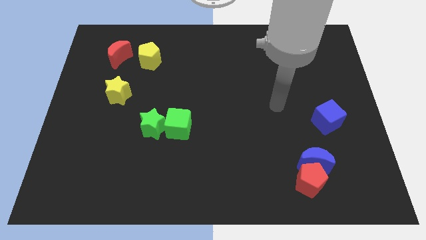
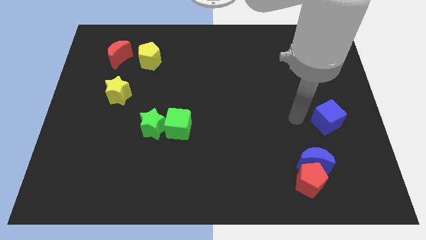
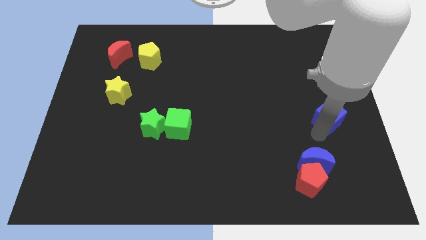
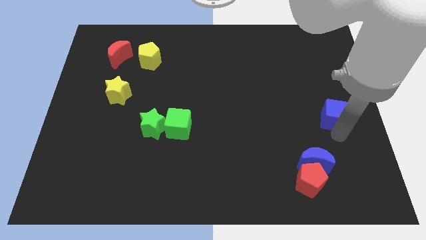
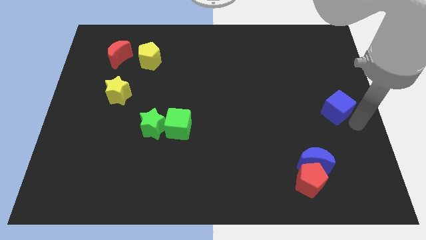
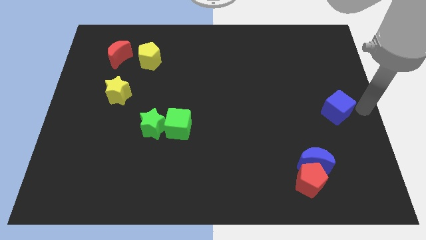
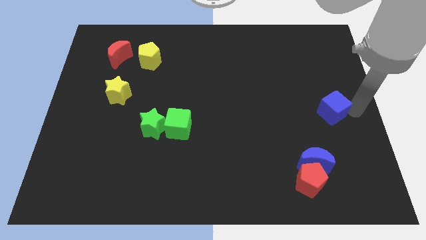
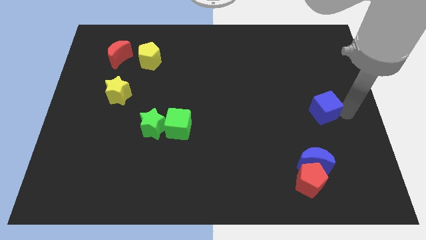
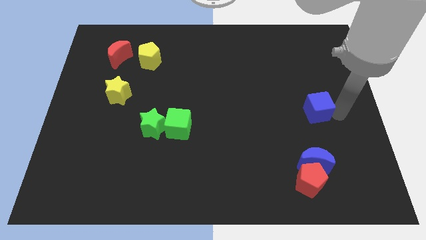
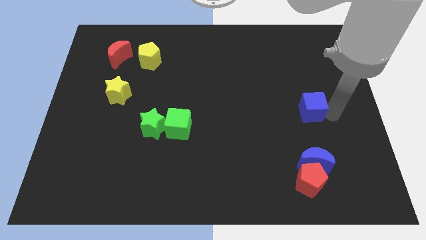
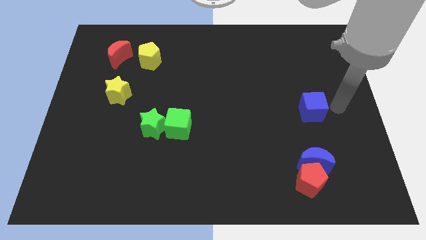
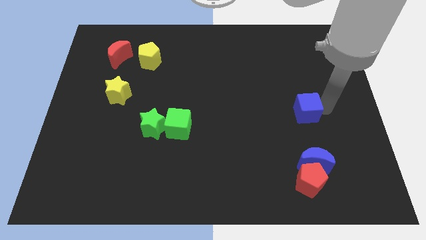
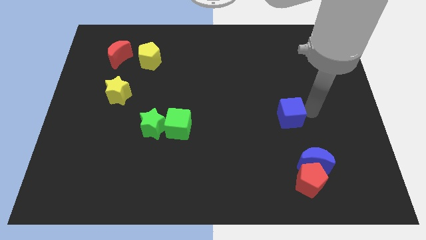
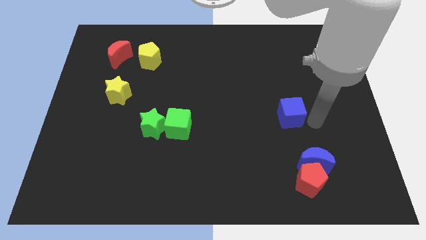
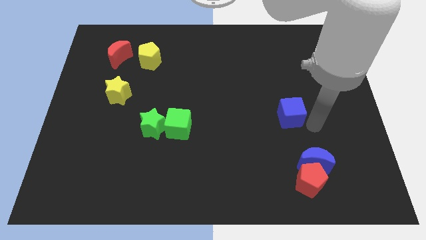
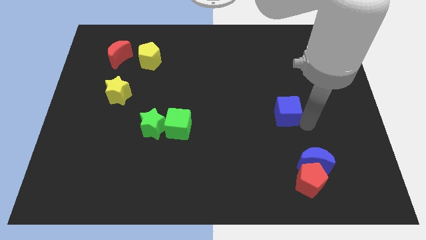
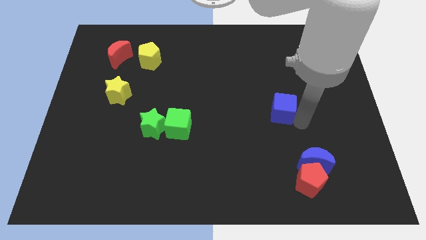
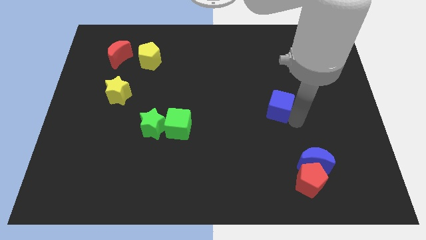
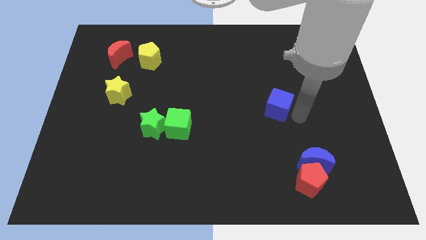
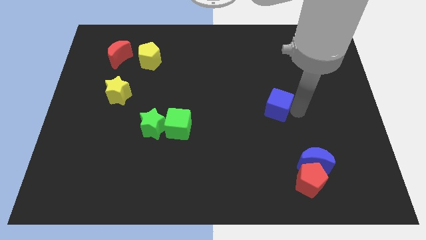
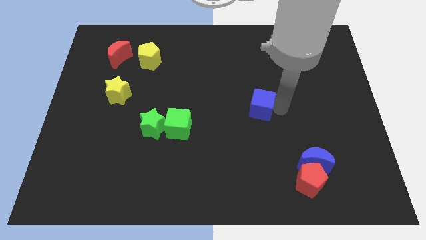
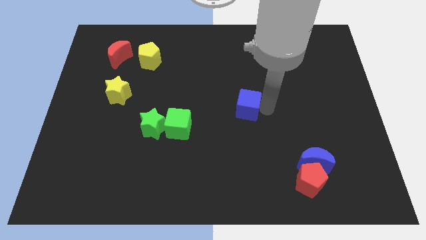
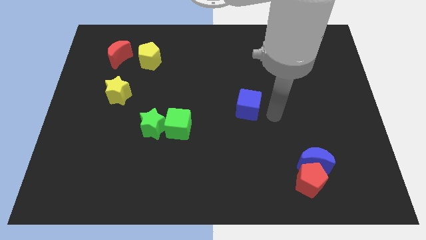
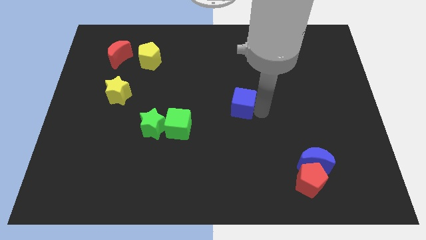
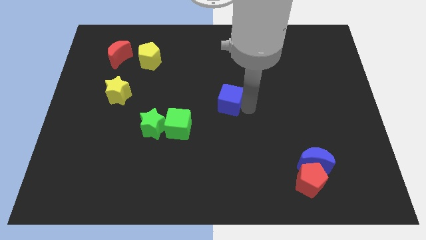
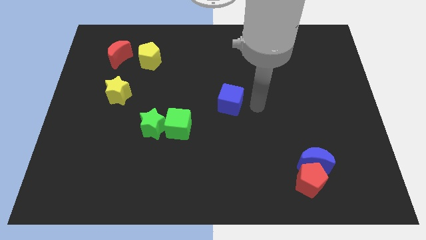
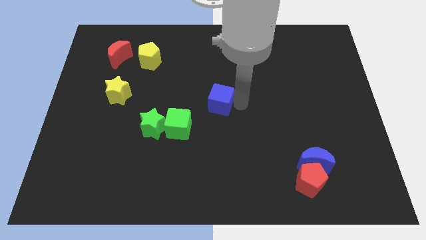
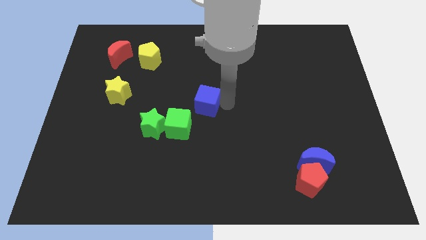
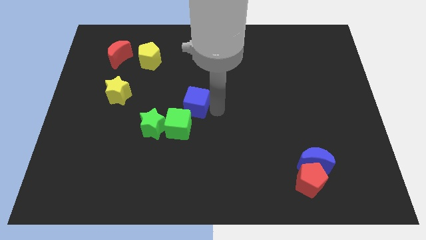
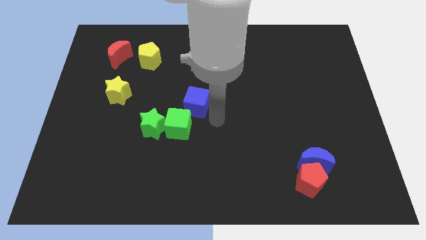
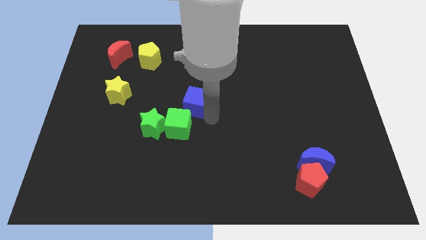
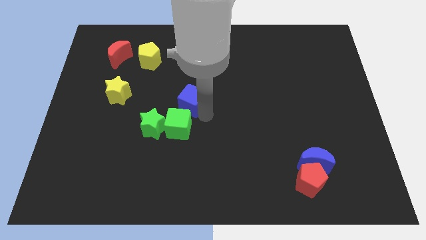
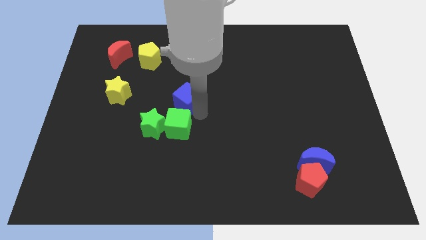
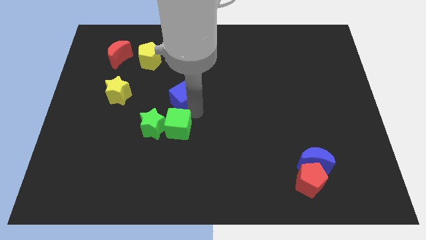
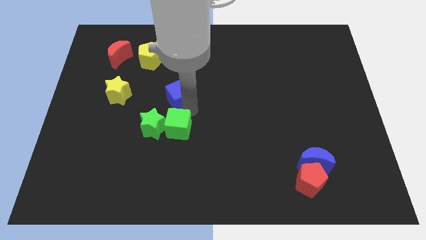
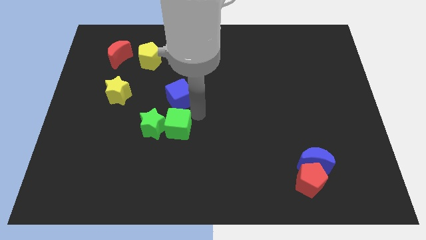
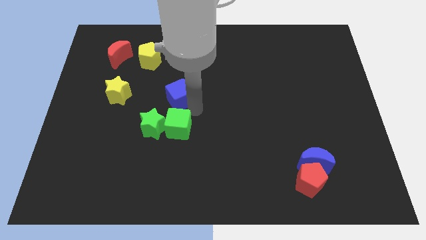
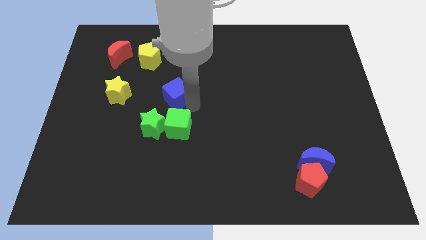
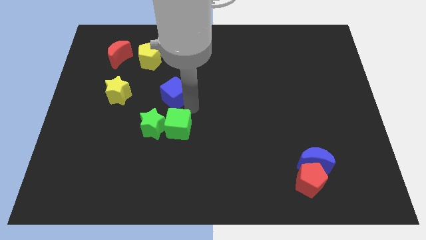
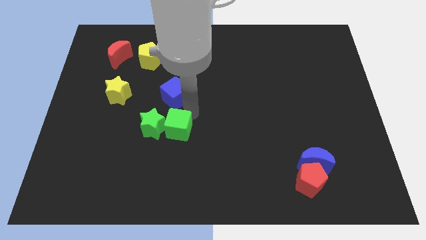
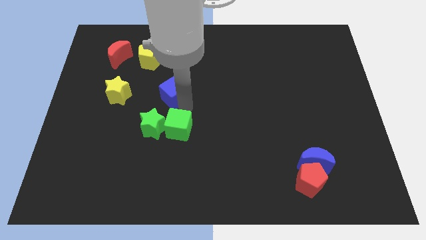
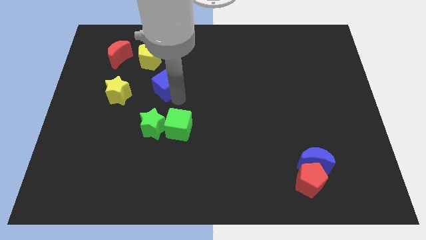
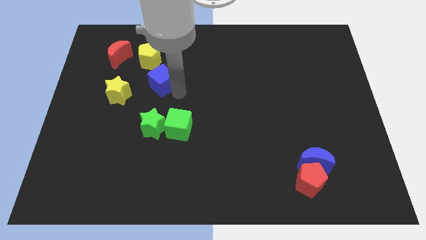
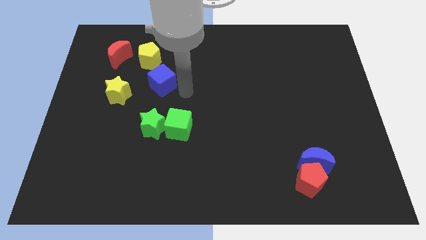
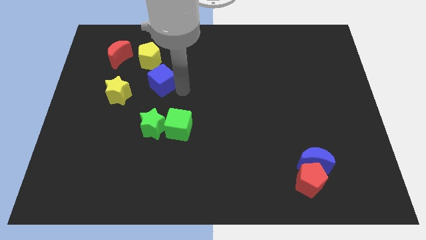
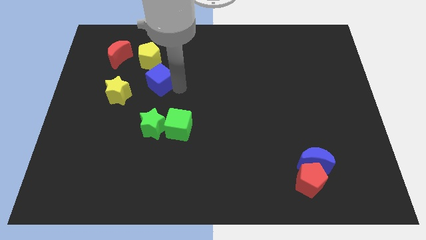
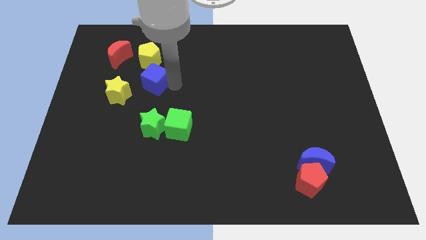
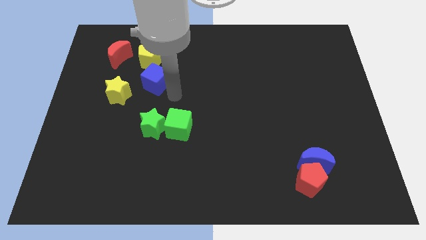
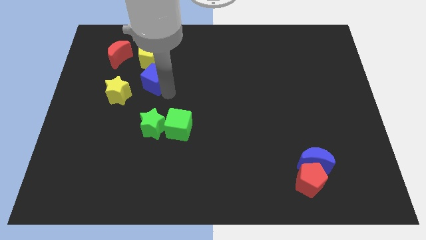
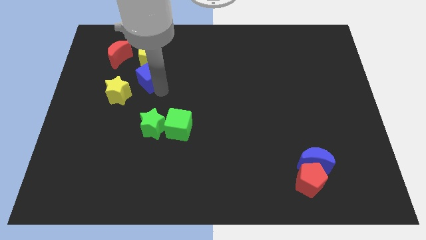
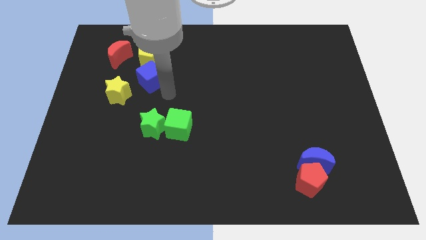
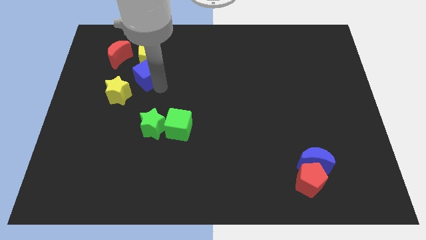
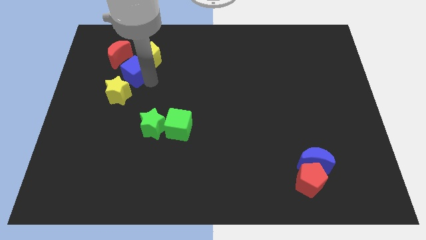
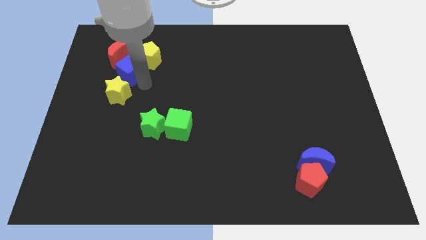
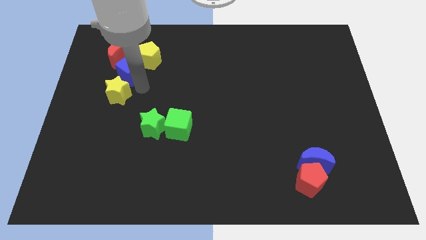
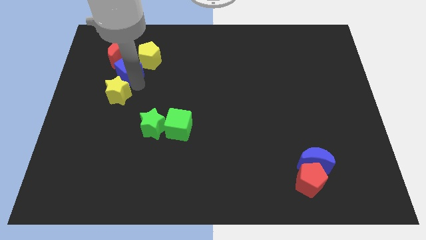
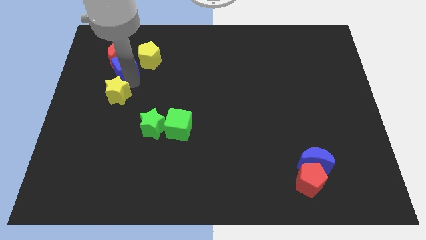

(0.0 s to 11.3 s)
push the blue cube next to the red moon

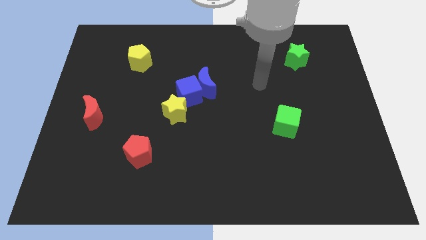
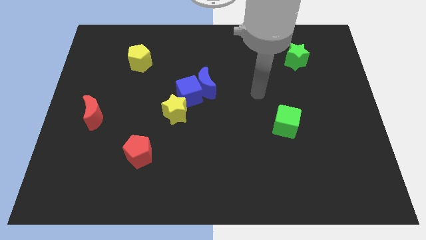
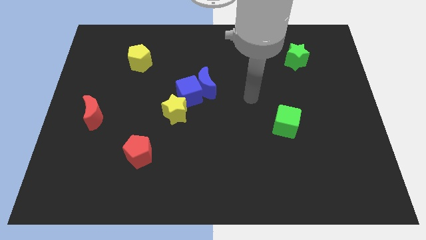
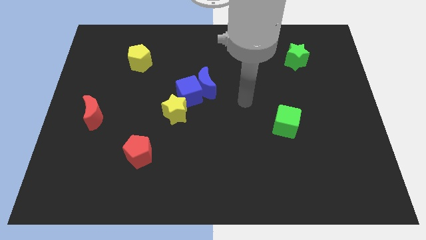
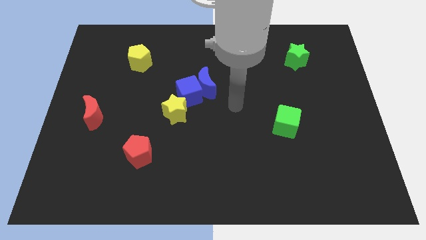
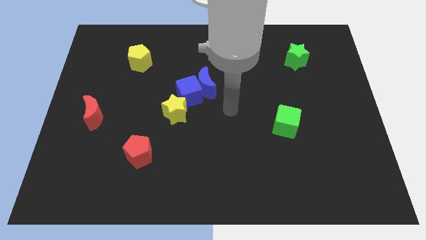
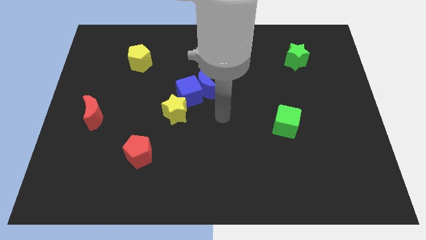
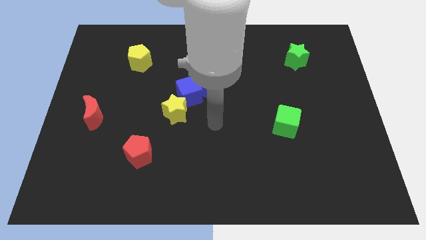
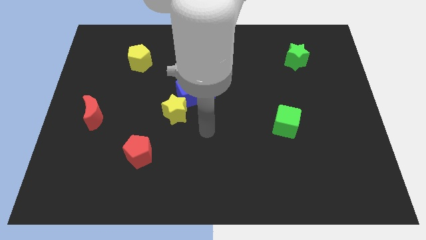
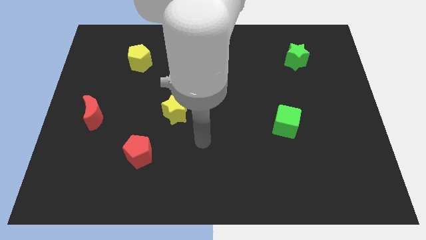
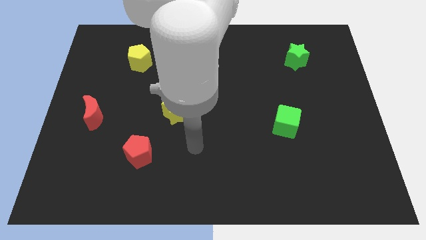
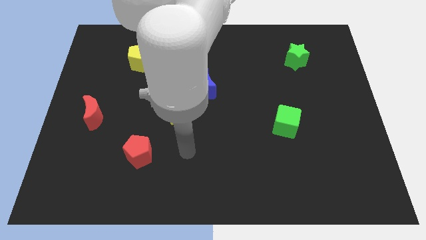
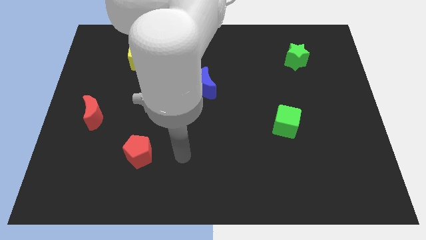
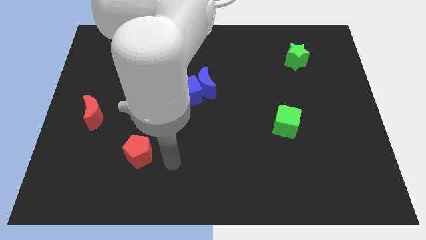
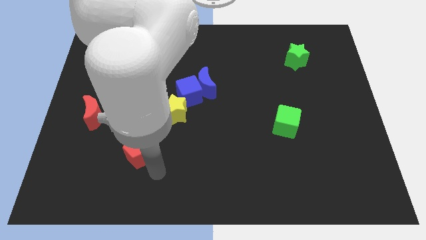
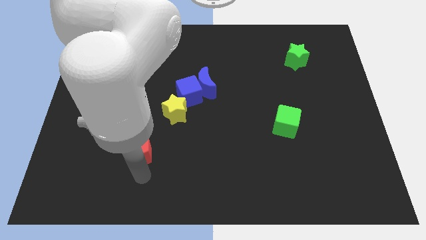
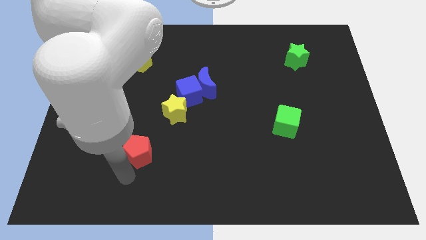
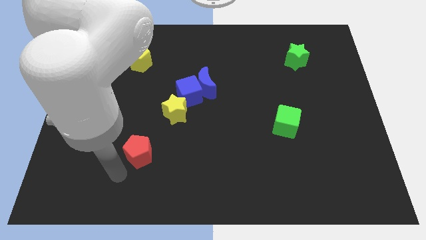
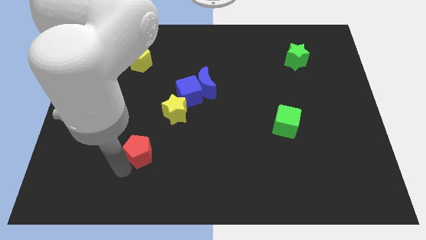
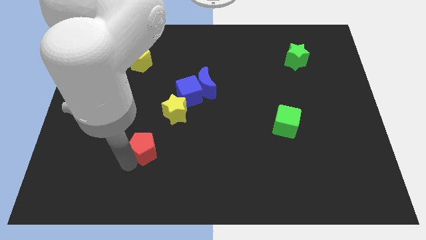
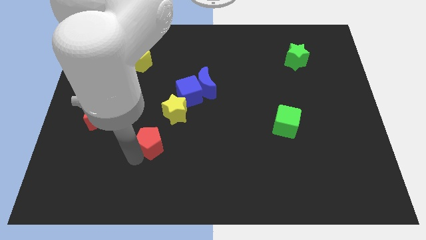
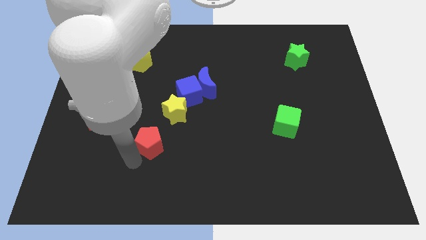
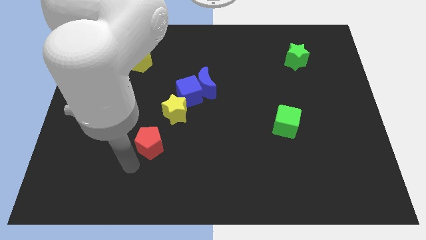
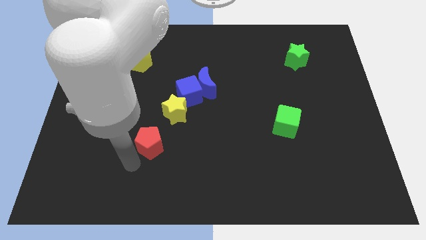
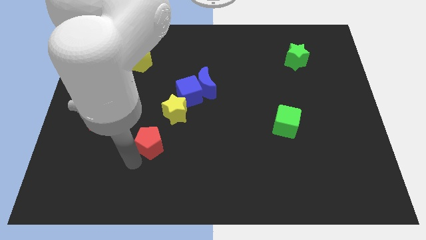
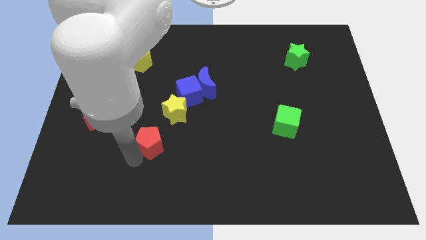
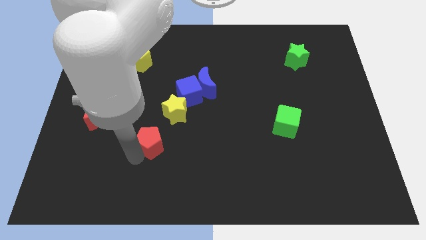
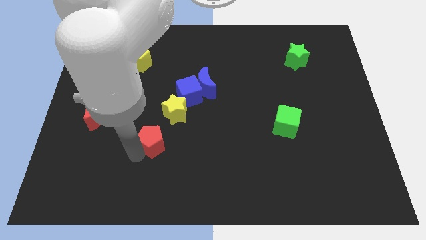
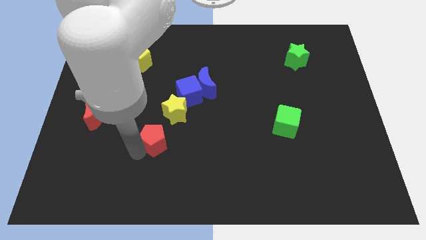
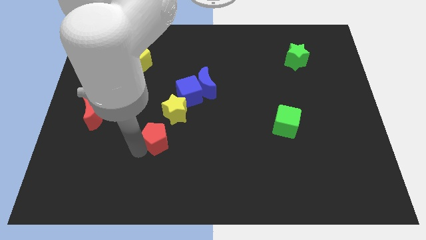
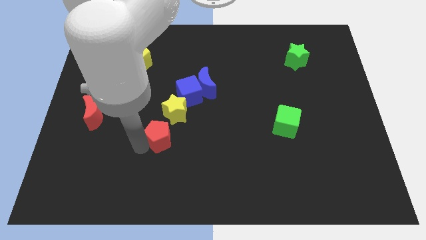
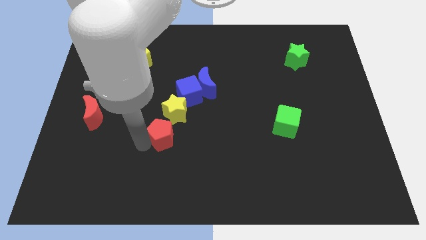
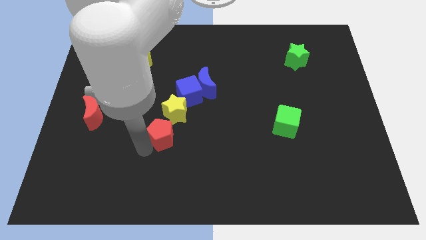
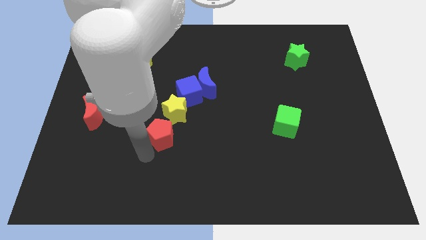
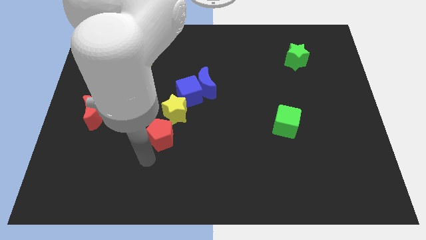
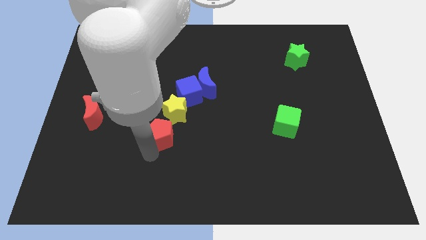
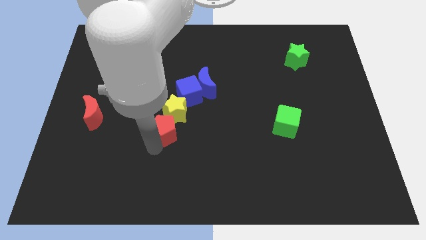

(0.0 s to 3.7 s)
put the red pentagon close to the yellow star
